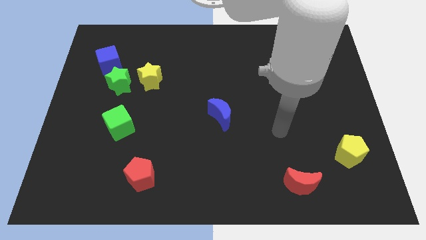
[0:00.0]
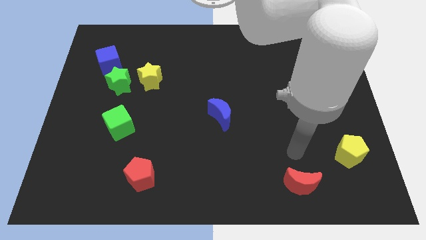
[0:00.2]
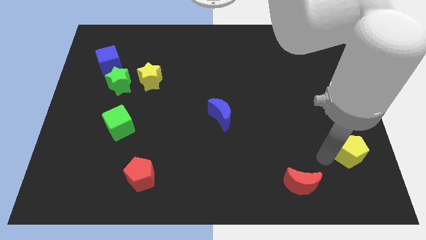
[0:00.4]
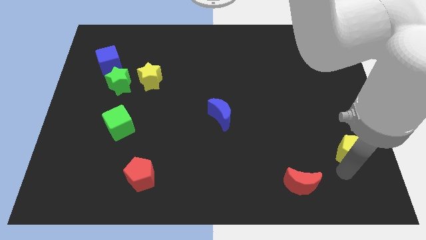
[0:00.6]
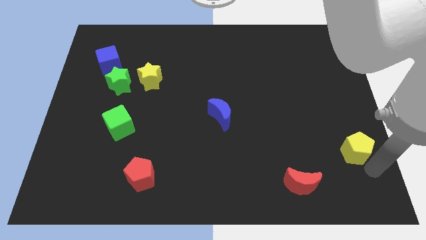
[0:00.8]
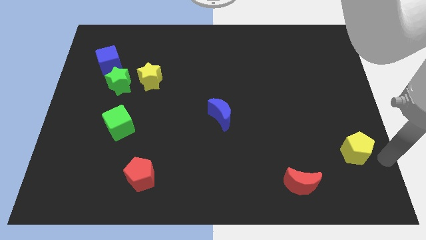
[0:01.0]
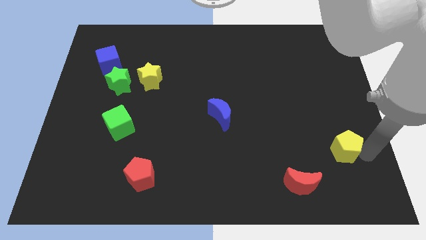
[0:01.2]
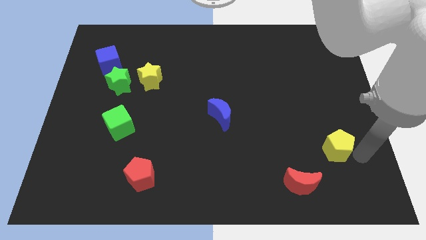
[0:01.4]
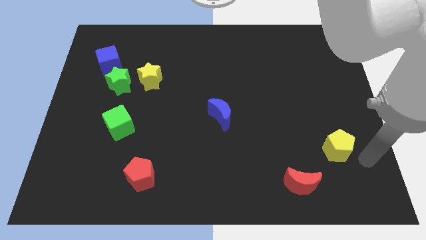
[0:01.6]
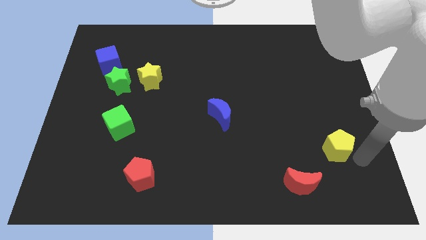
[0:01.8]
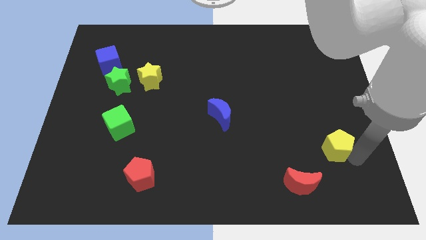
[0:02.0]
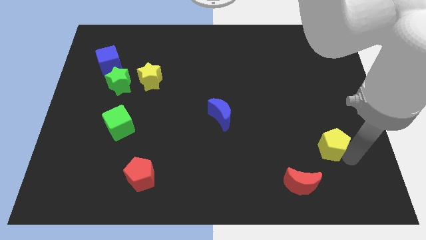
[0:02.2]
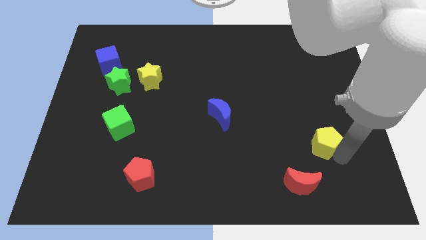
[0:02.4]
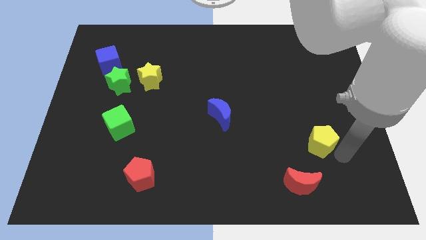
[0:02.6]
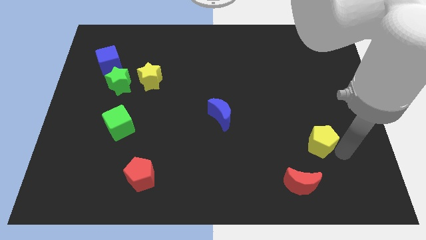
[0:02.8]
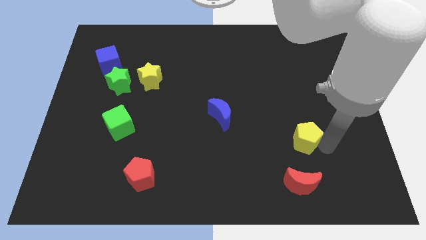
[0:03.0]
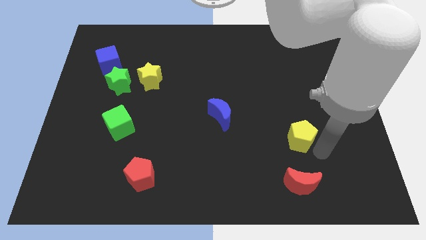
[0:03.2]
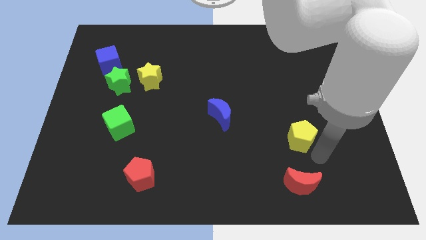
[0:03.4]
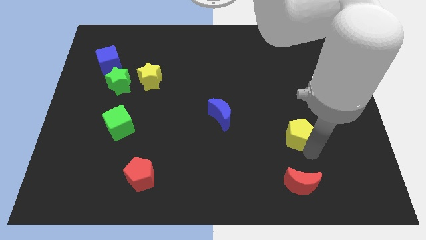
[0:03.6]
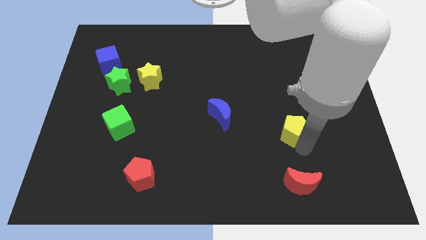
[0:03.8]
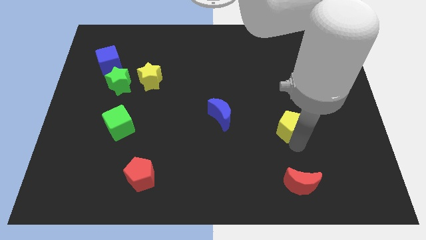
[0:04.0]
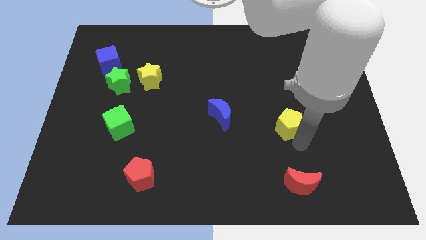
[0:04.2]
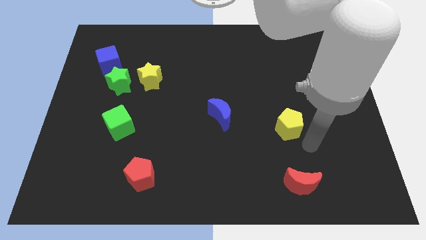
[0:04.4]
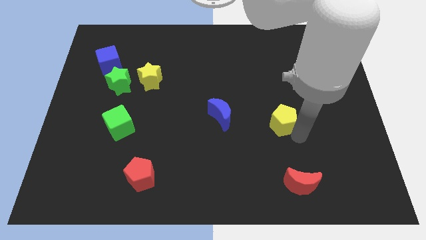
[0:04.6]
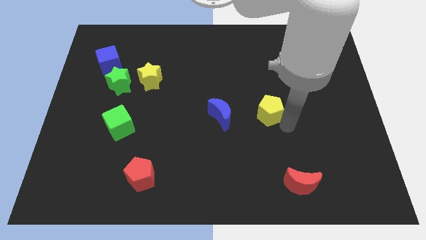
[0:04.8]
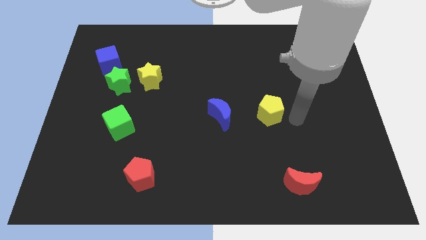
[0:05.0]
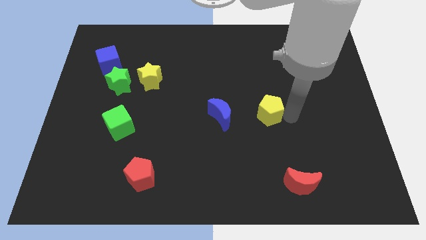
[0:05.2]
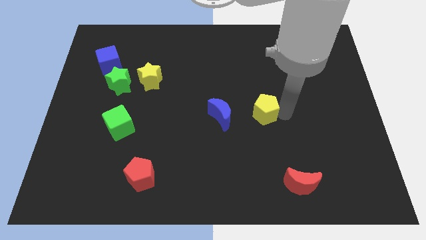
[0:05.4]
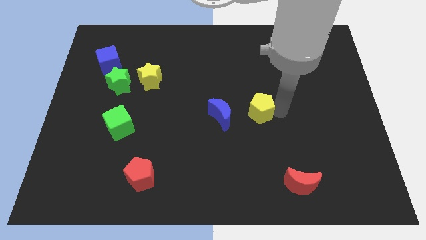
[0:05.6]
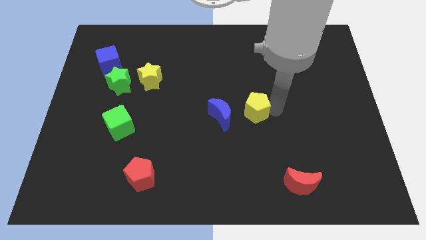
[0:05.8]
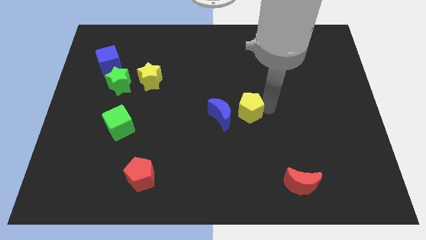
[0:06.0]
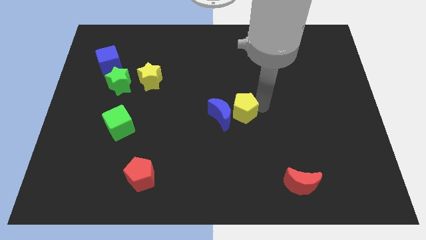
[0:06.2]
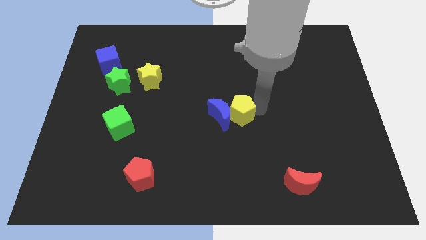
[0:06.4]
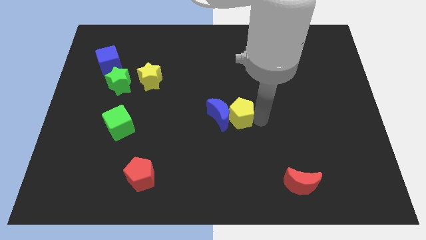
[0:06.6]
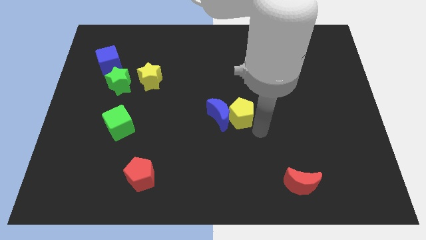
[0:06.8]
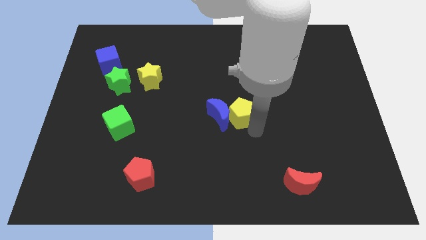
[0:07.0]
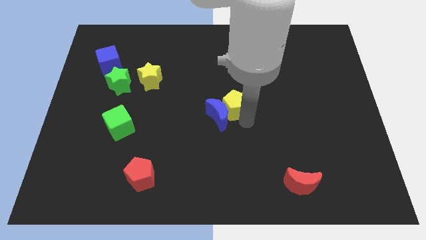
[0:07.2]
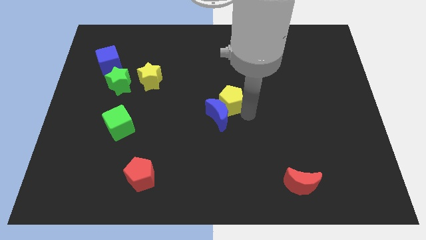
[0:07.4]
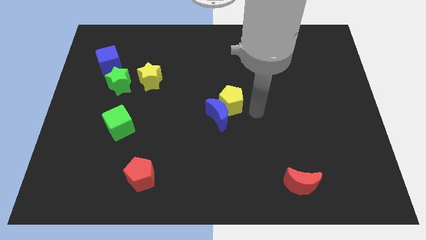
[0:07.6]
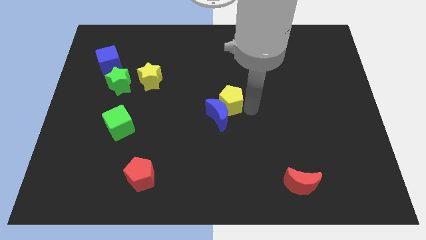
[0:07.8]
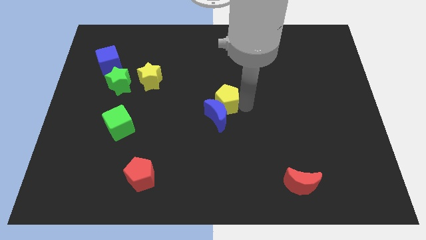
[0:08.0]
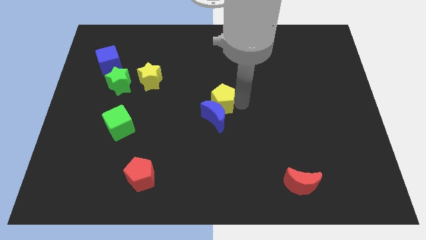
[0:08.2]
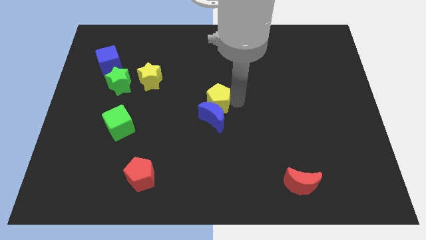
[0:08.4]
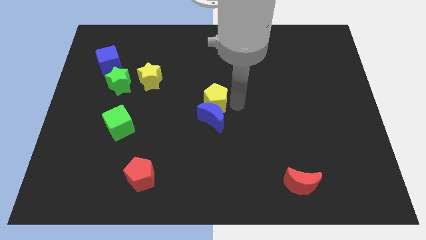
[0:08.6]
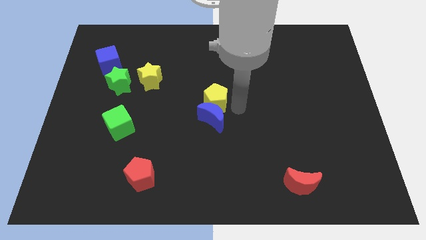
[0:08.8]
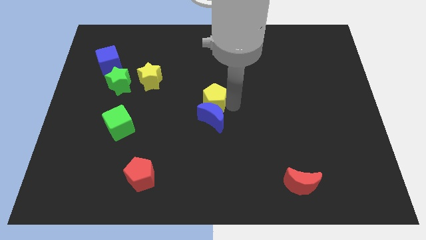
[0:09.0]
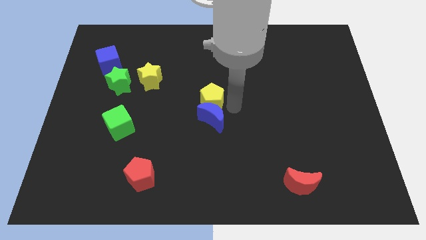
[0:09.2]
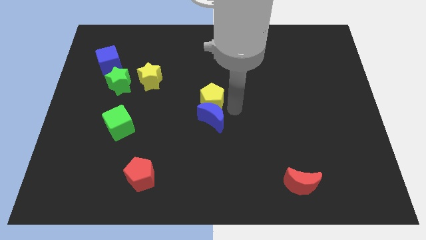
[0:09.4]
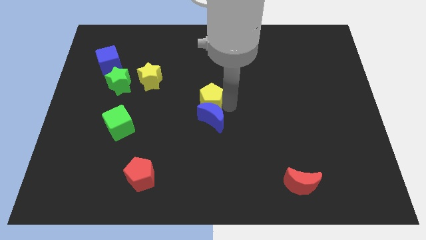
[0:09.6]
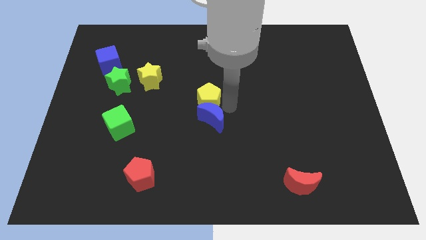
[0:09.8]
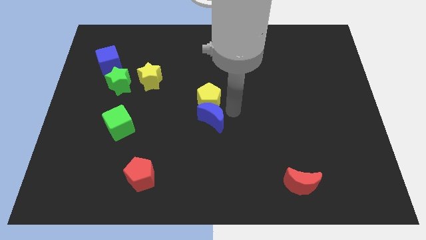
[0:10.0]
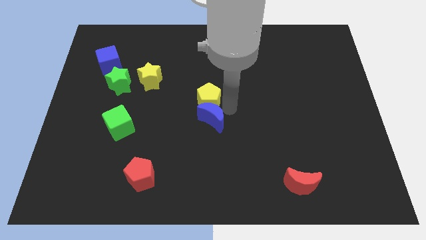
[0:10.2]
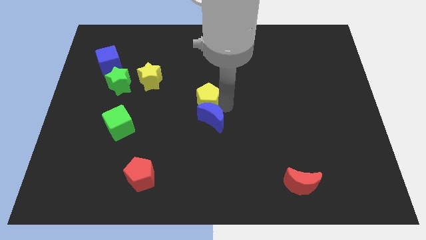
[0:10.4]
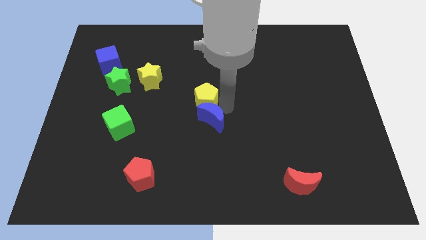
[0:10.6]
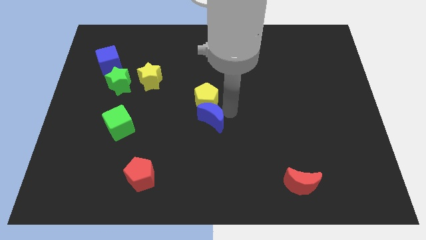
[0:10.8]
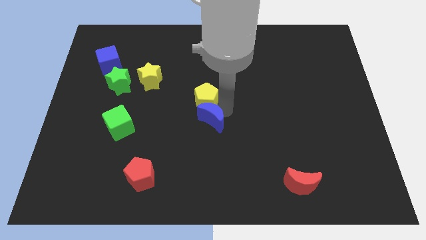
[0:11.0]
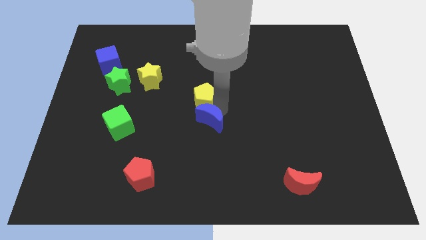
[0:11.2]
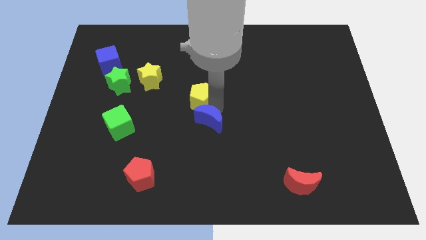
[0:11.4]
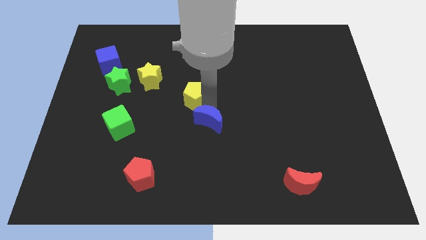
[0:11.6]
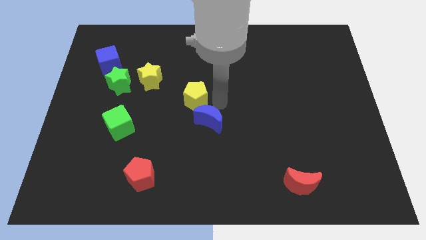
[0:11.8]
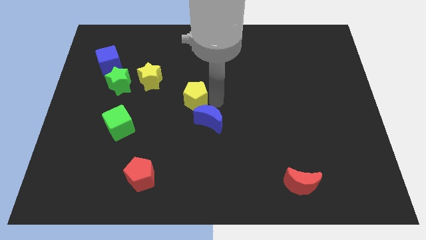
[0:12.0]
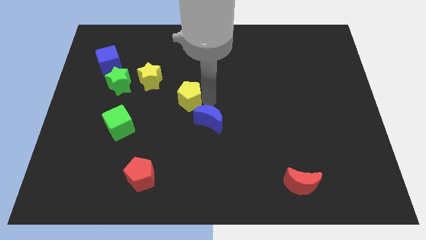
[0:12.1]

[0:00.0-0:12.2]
slide the yellow pentagon to the bottom right of the yellow star
